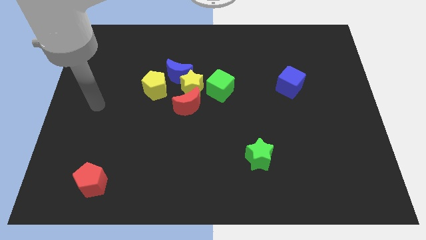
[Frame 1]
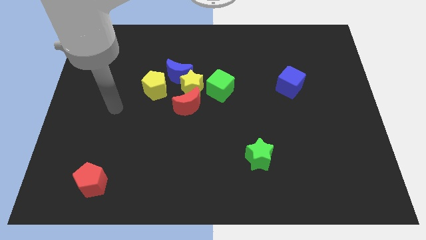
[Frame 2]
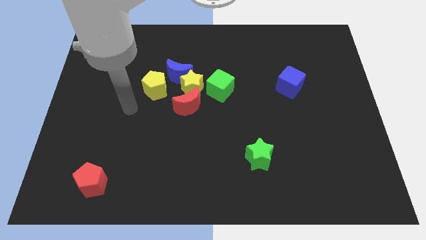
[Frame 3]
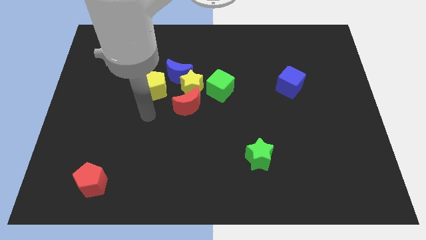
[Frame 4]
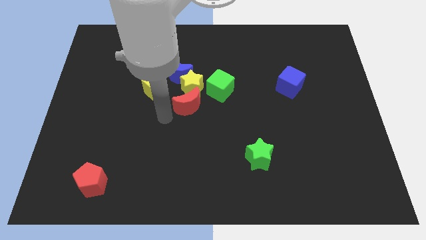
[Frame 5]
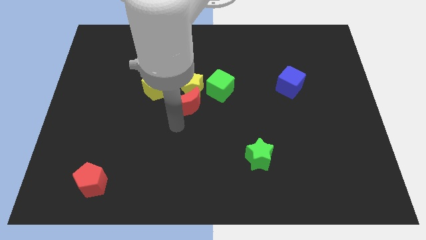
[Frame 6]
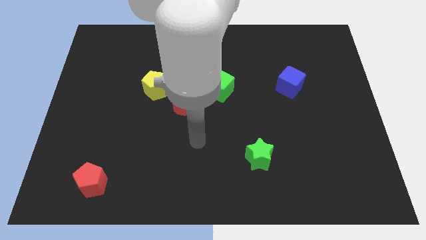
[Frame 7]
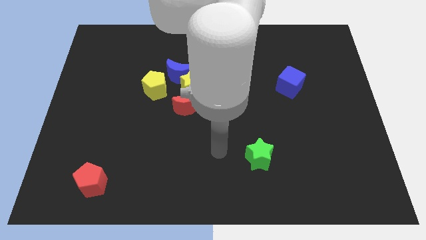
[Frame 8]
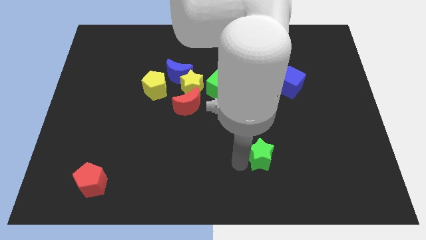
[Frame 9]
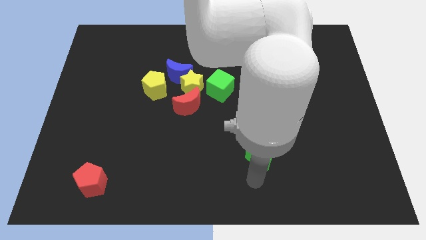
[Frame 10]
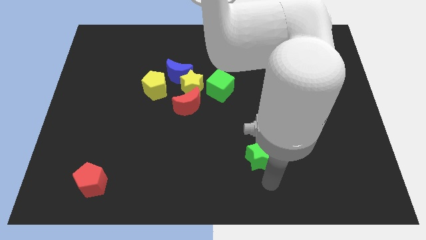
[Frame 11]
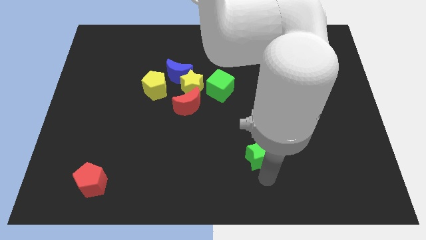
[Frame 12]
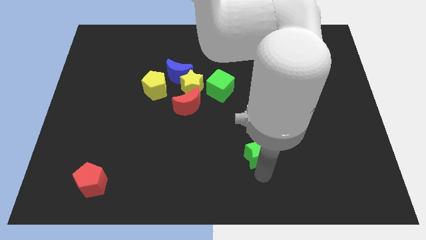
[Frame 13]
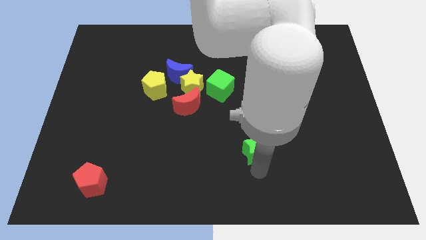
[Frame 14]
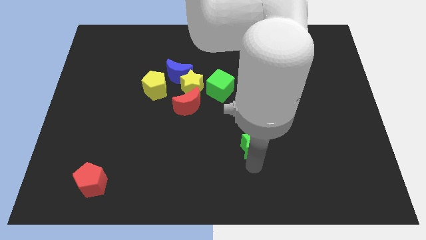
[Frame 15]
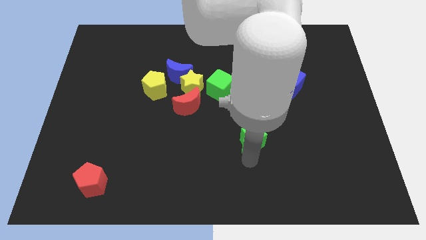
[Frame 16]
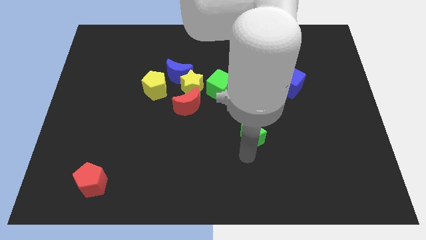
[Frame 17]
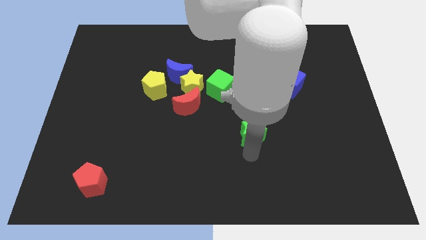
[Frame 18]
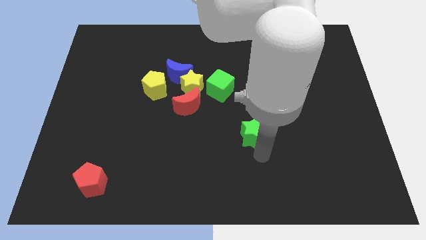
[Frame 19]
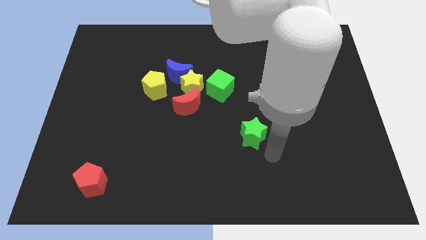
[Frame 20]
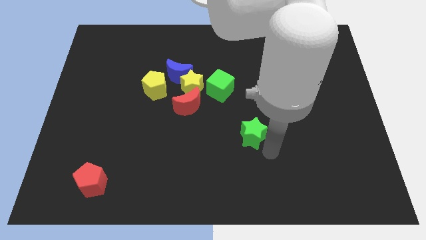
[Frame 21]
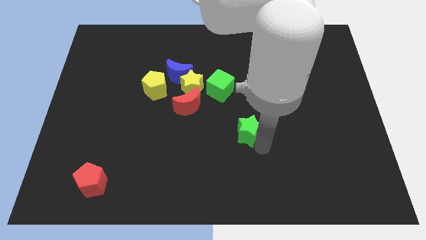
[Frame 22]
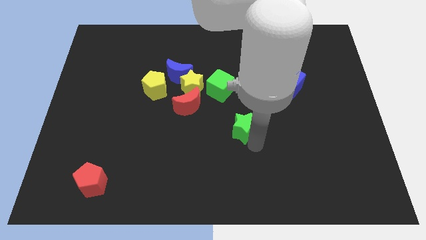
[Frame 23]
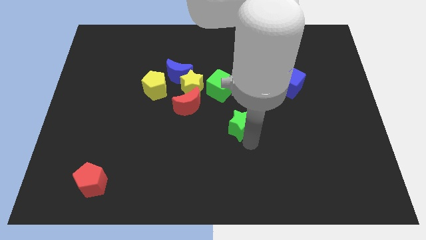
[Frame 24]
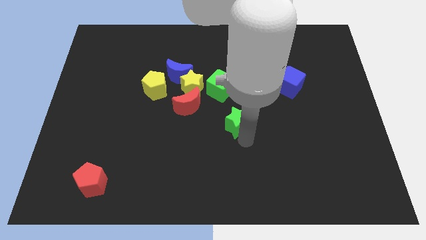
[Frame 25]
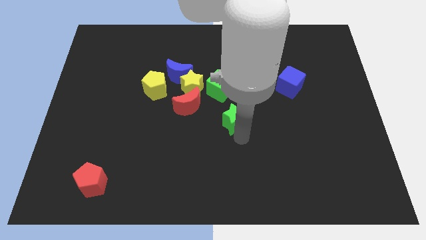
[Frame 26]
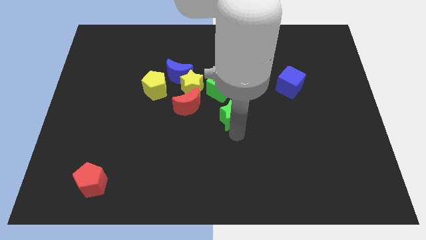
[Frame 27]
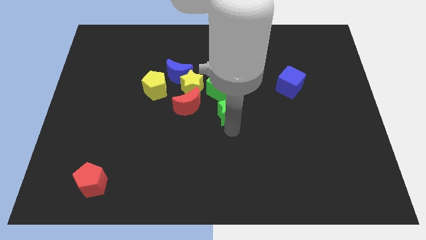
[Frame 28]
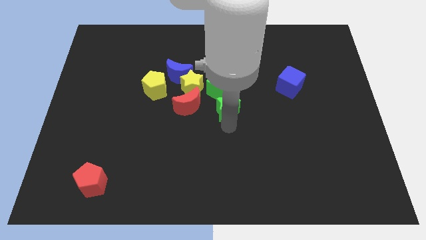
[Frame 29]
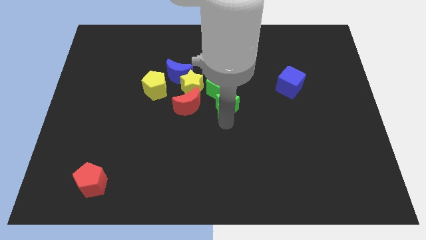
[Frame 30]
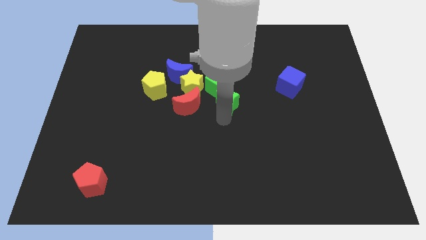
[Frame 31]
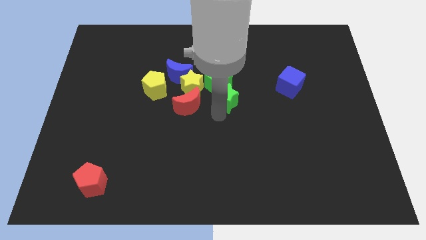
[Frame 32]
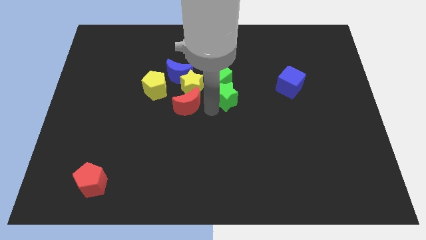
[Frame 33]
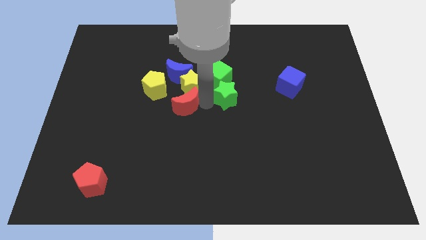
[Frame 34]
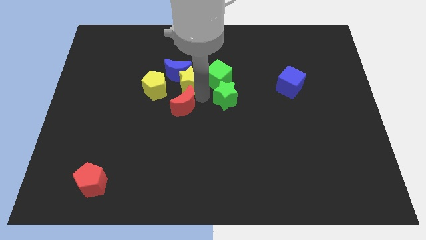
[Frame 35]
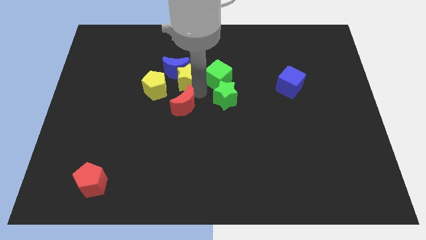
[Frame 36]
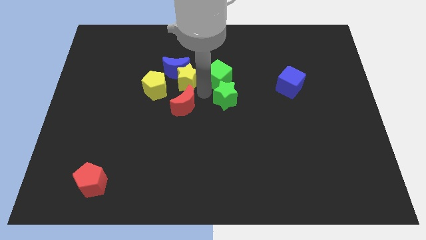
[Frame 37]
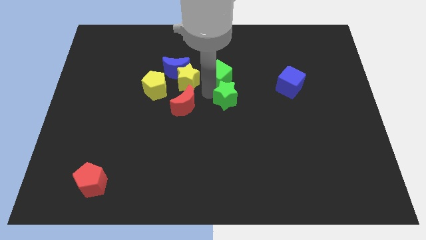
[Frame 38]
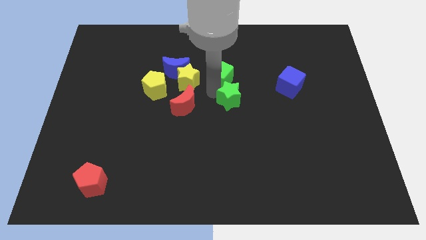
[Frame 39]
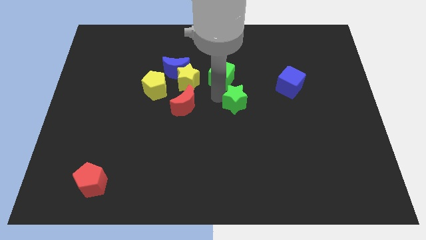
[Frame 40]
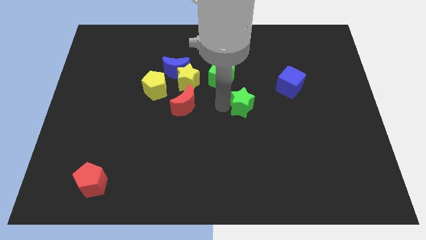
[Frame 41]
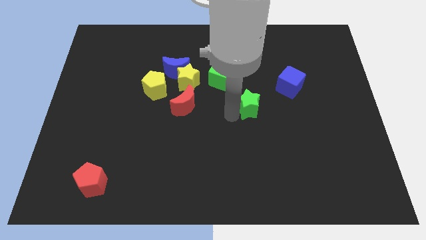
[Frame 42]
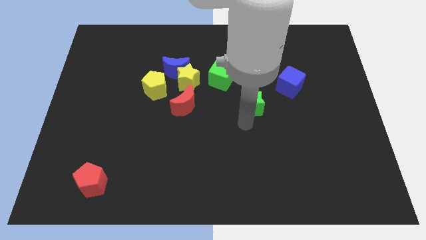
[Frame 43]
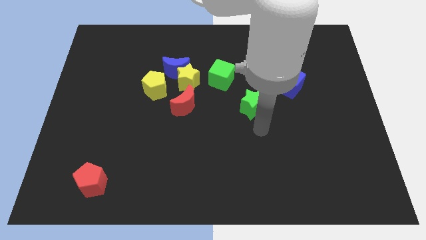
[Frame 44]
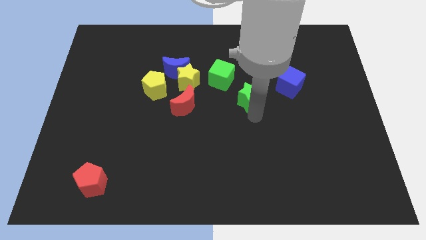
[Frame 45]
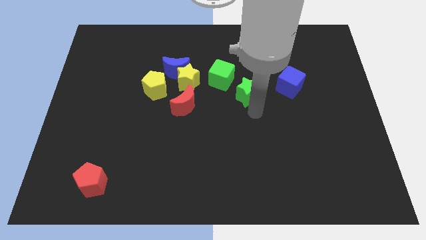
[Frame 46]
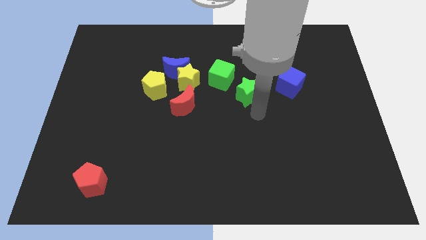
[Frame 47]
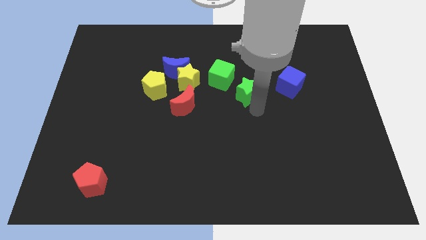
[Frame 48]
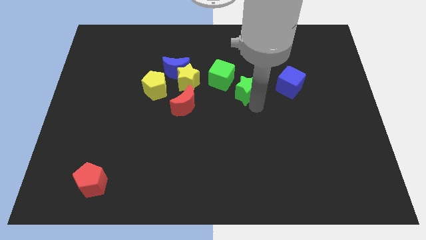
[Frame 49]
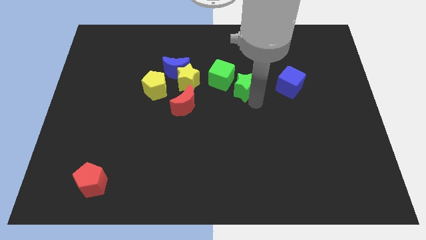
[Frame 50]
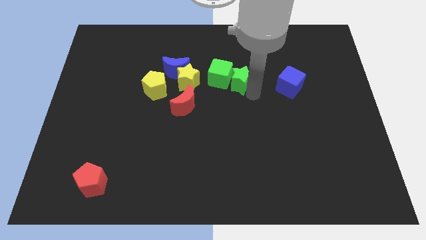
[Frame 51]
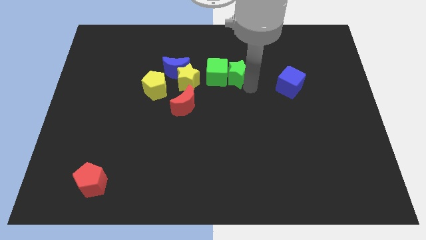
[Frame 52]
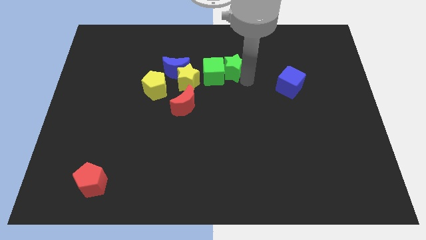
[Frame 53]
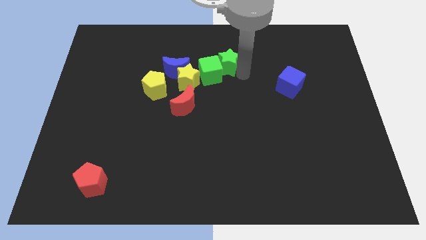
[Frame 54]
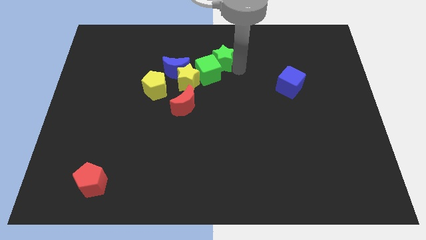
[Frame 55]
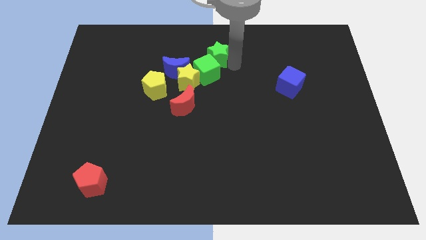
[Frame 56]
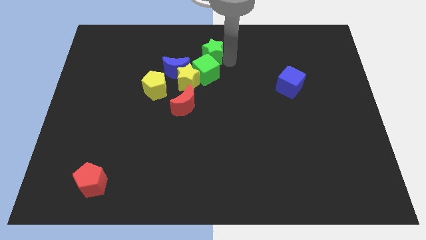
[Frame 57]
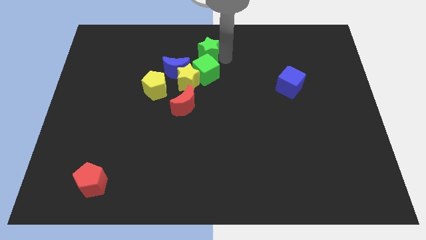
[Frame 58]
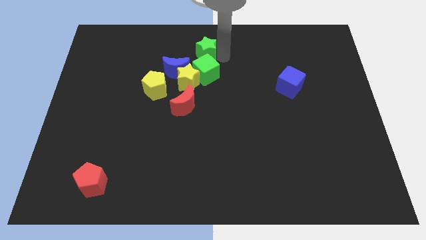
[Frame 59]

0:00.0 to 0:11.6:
put the green star to the top left side of the green cube
